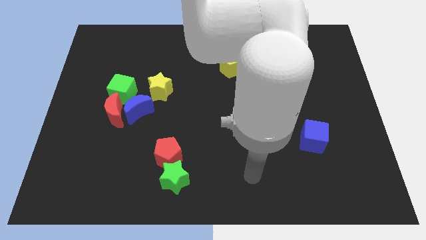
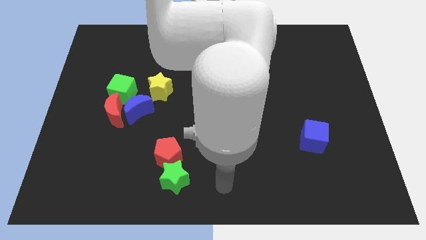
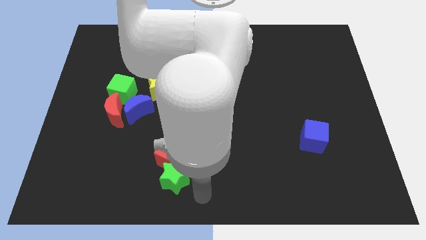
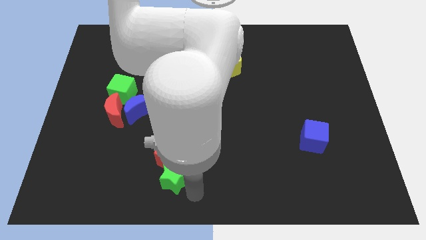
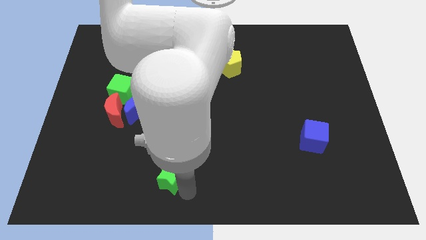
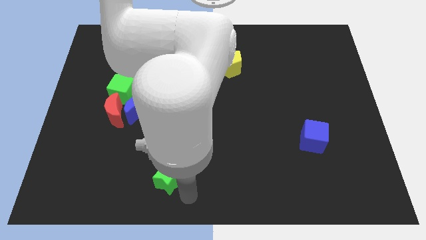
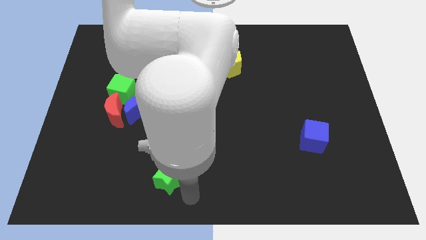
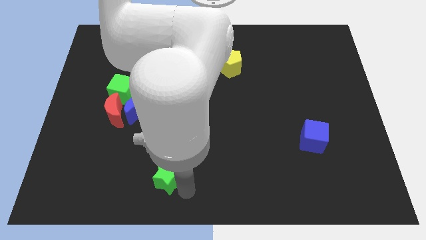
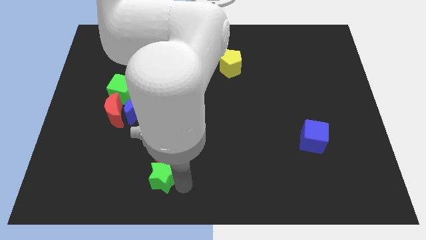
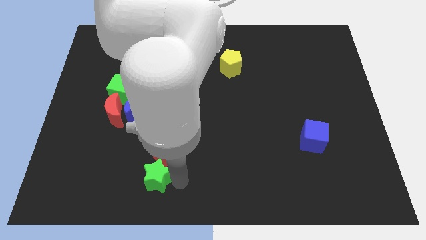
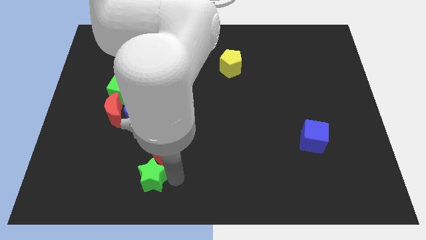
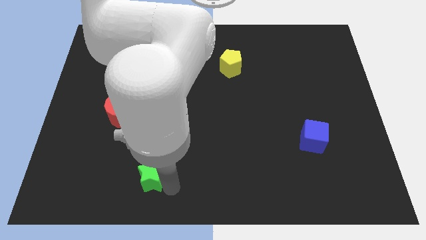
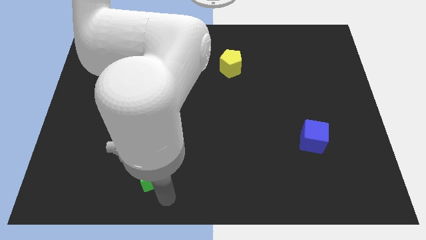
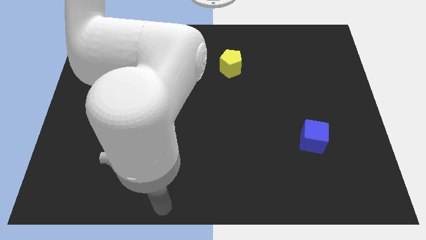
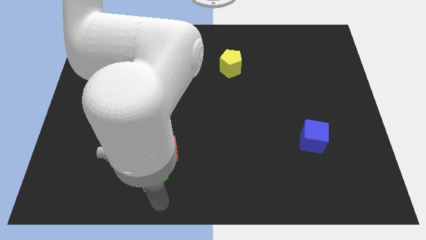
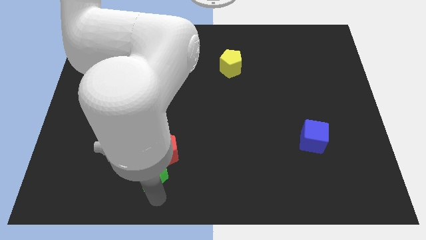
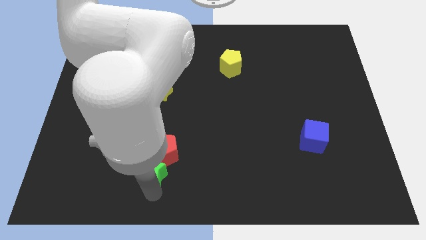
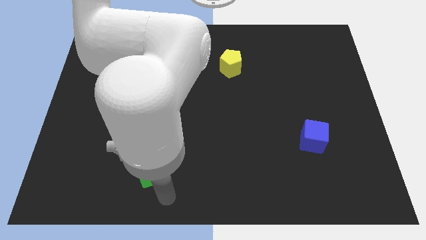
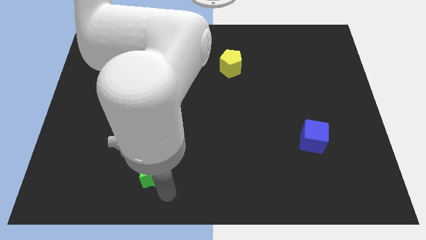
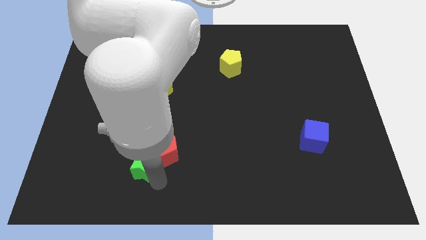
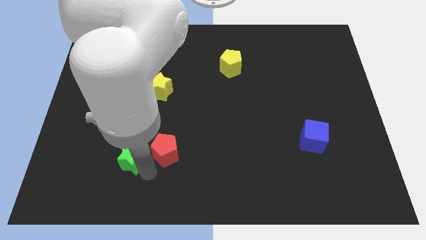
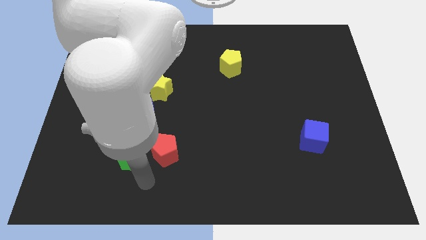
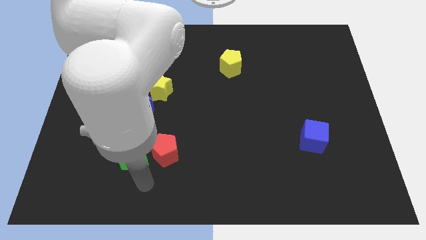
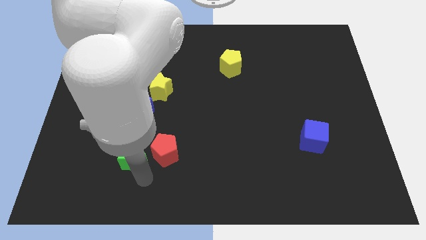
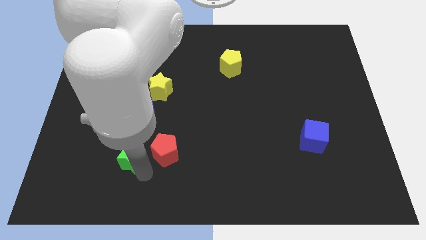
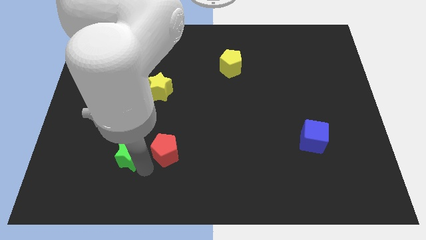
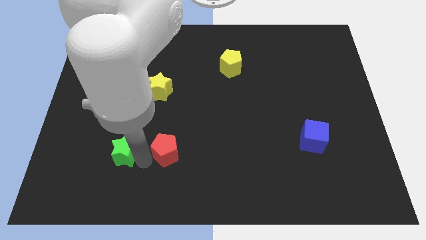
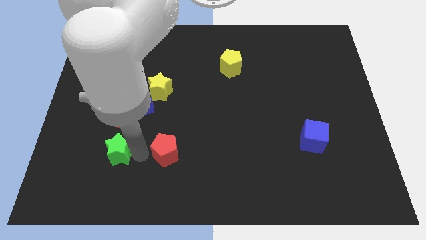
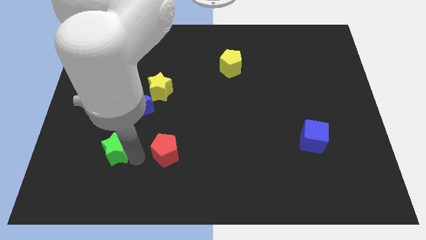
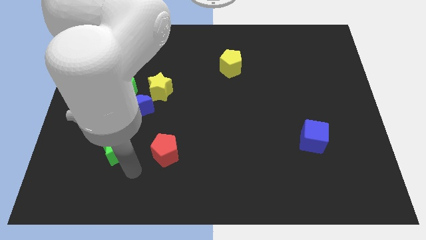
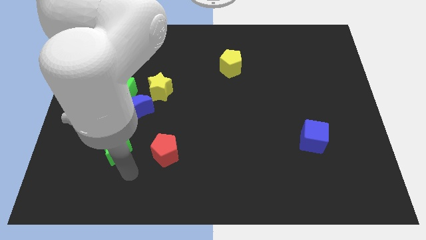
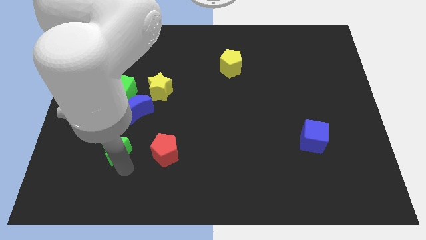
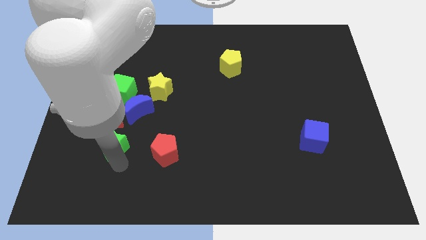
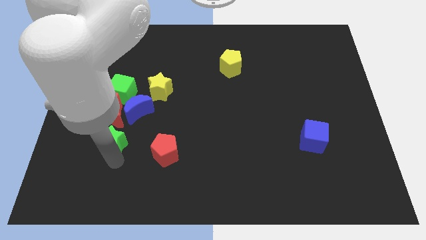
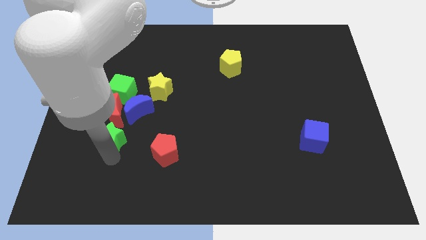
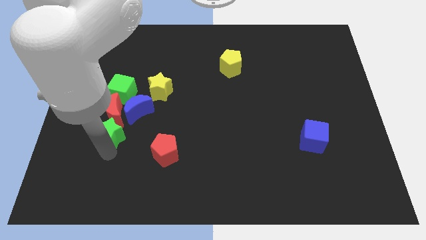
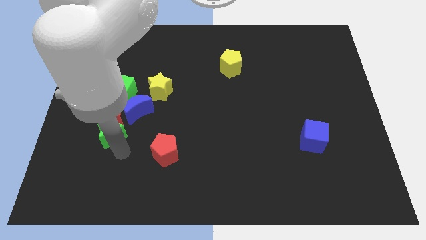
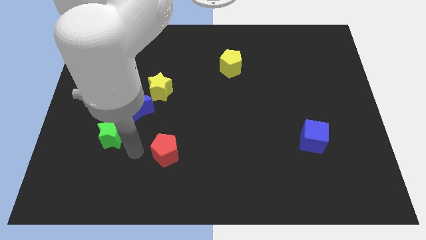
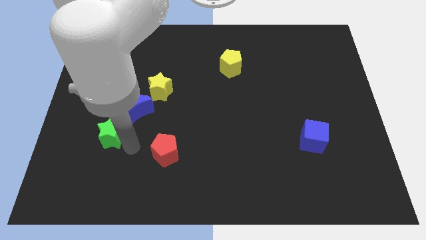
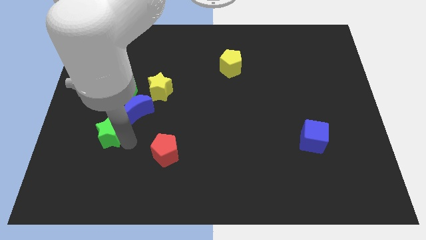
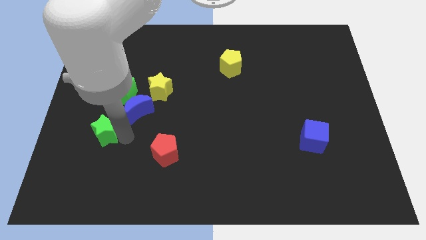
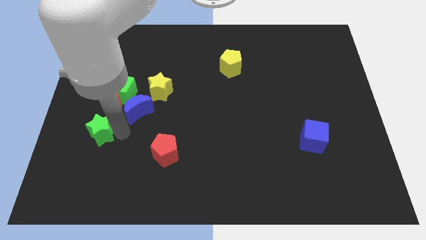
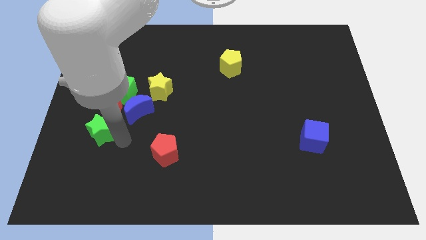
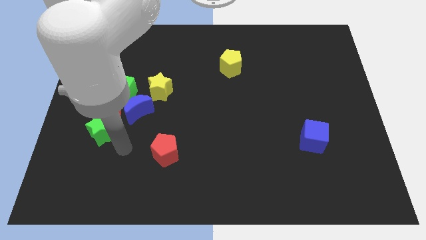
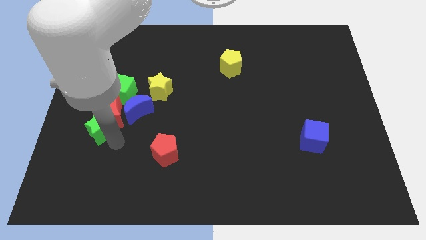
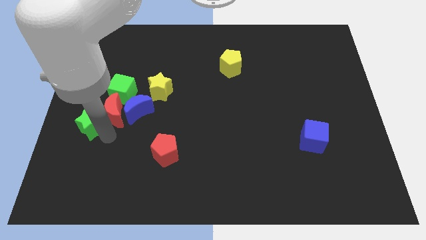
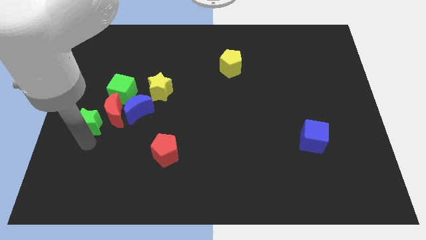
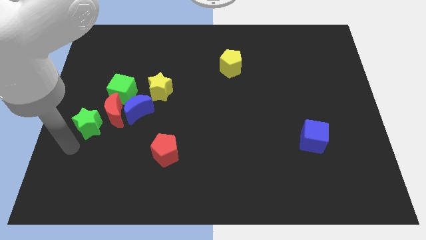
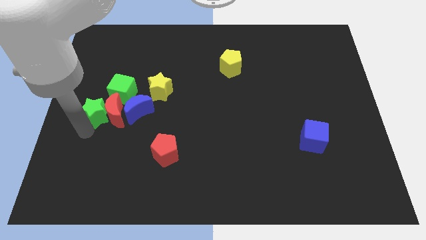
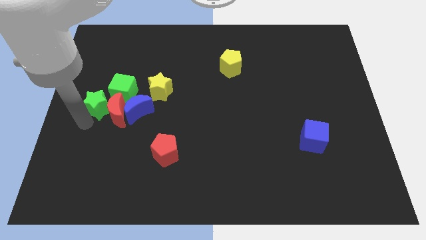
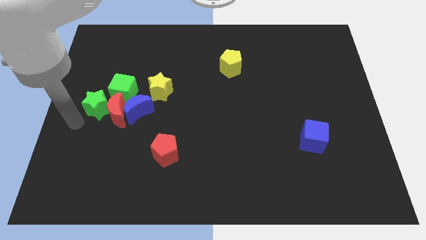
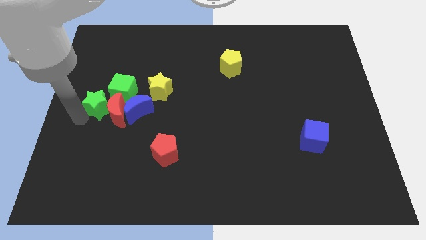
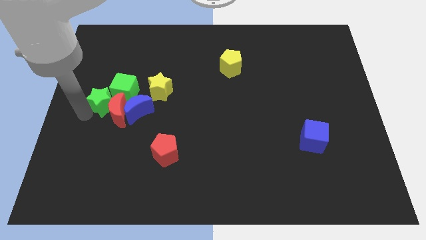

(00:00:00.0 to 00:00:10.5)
move the green star close to the green cube

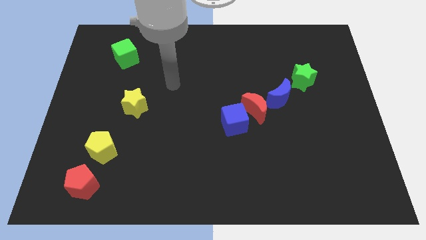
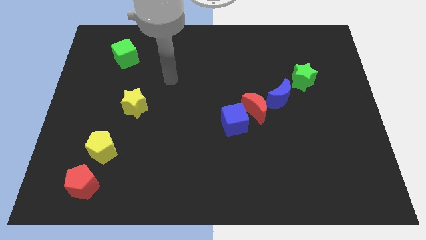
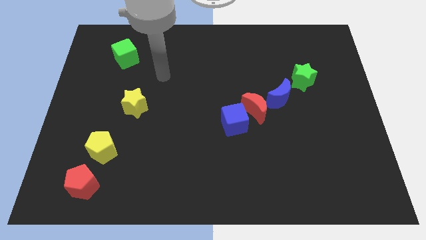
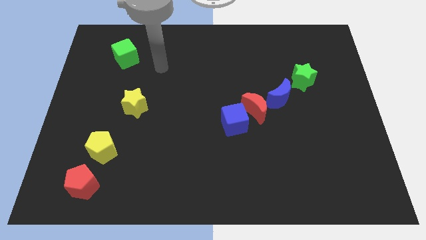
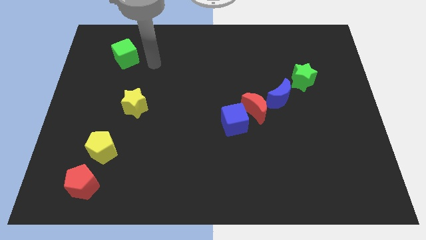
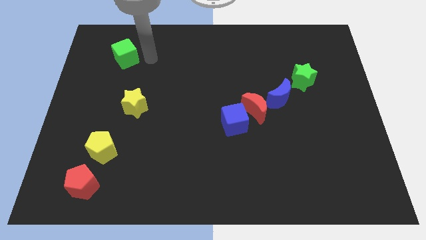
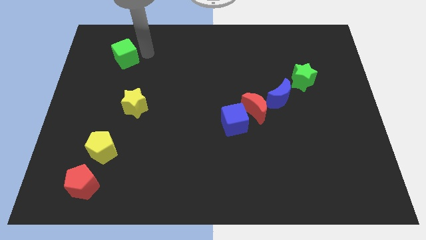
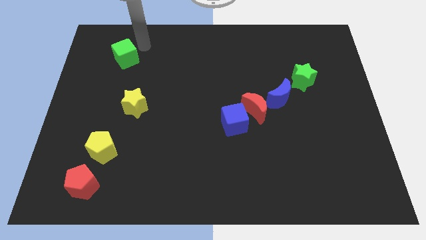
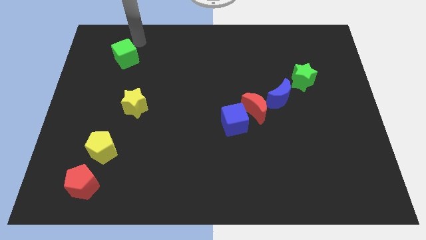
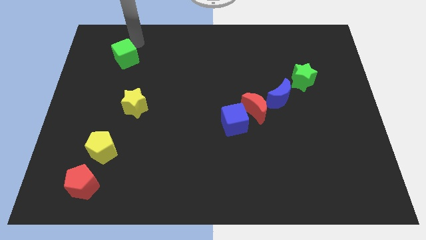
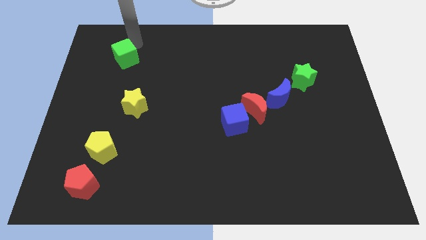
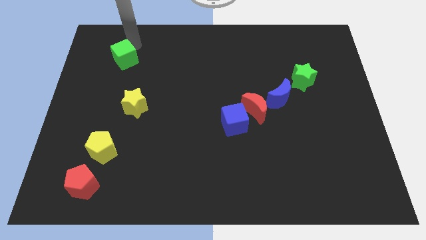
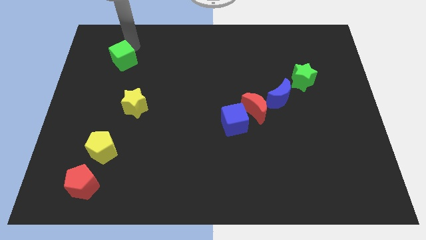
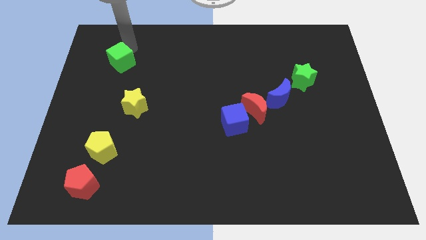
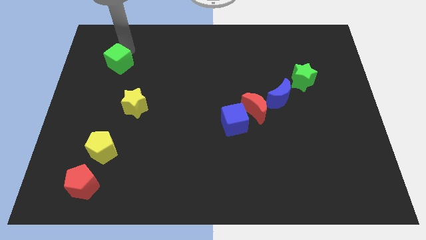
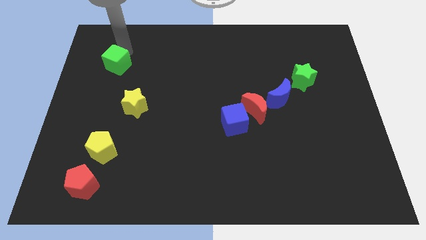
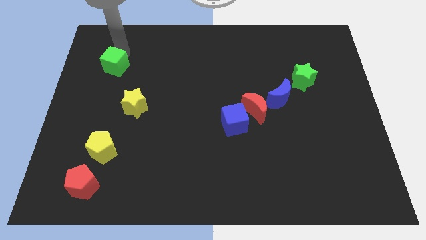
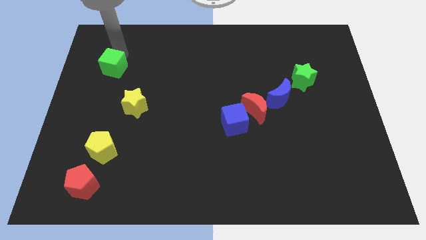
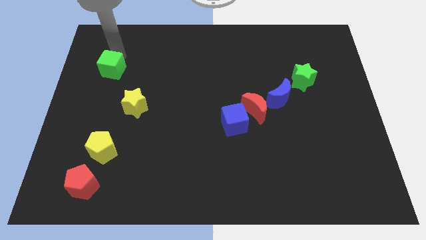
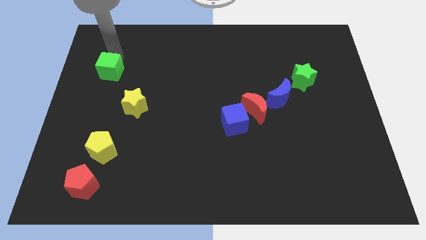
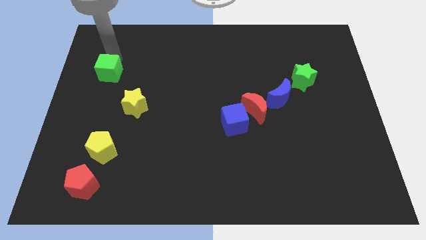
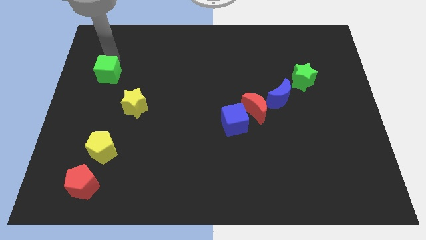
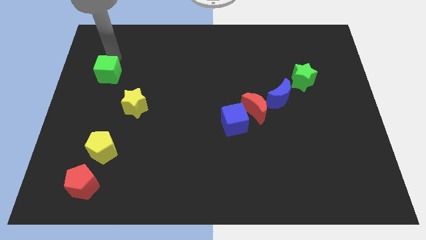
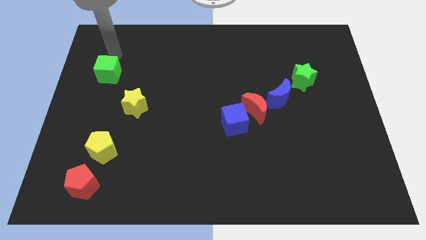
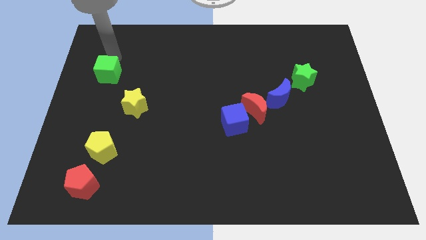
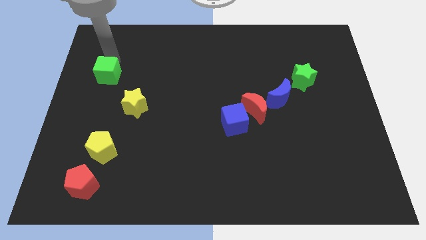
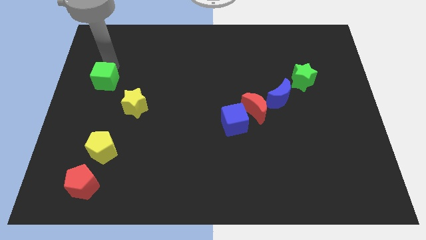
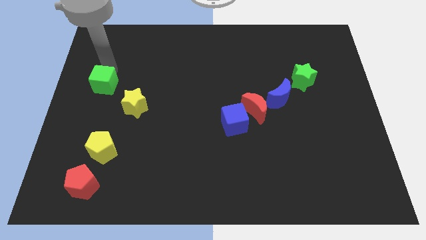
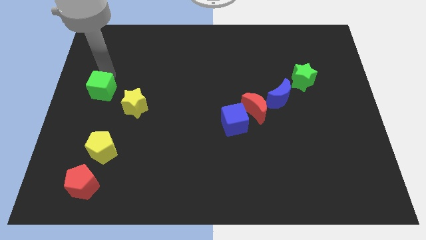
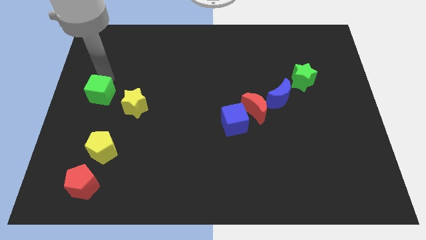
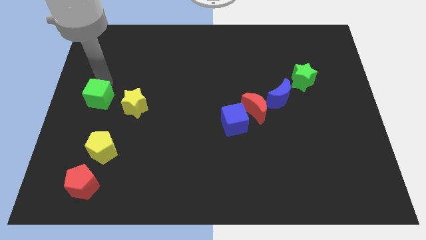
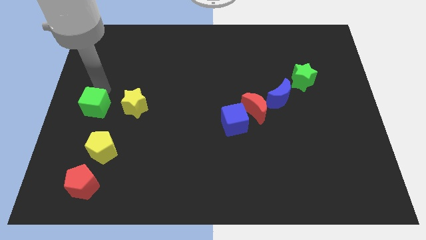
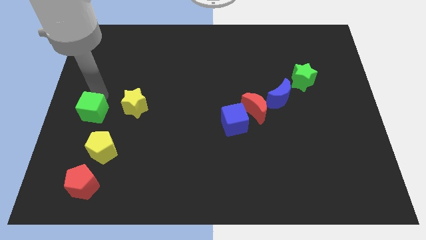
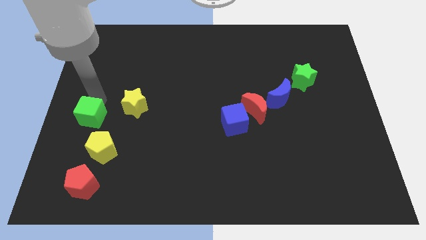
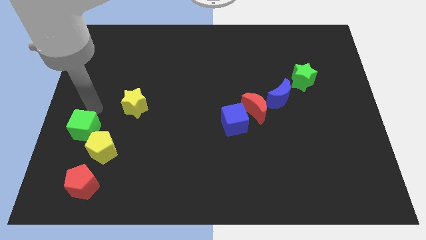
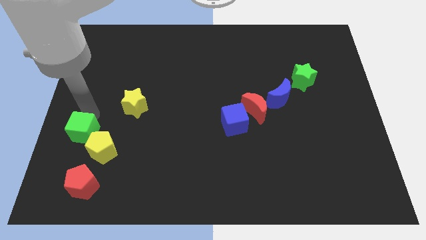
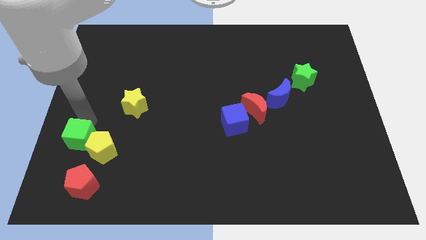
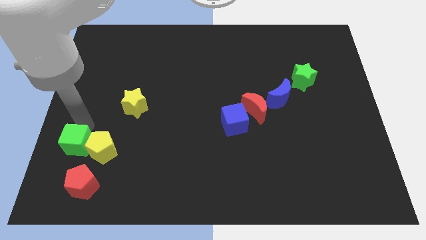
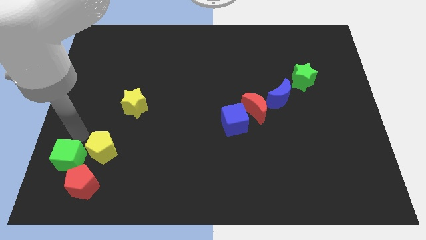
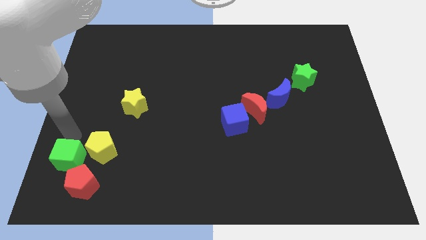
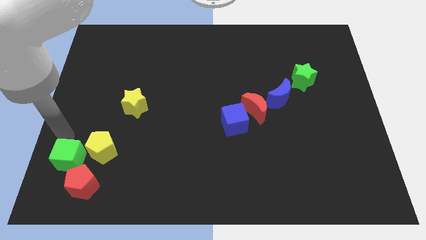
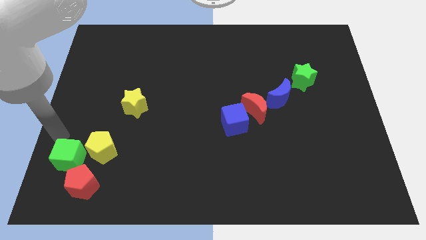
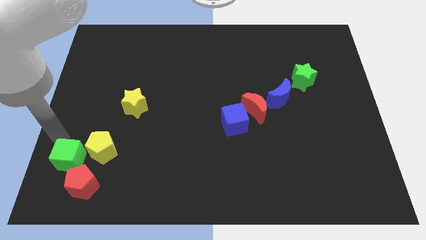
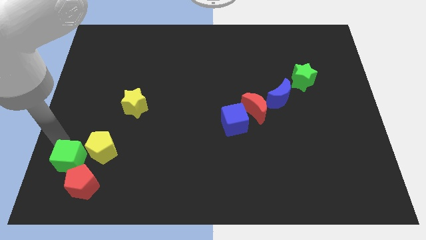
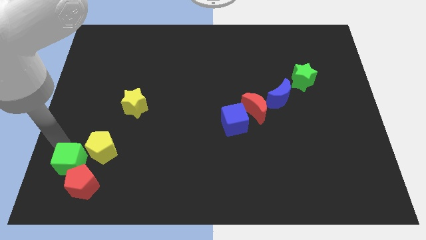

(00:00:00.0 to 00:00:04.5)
slide the green cube towards the red pentagon
